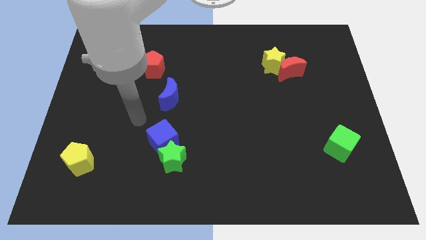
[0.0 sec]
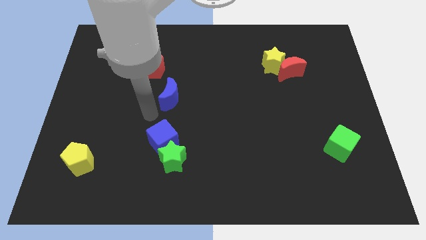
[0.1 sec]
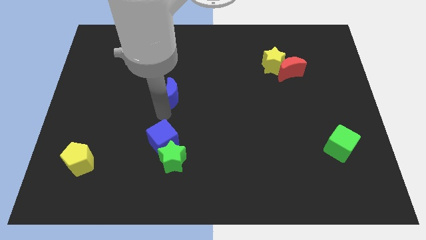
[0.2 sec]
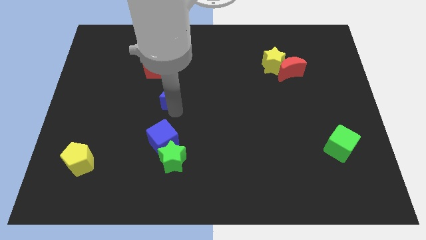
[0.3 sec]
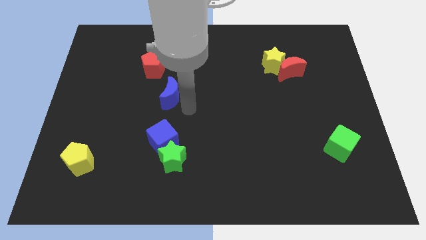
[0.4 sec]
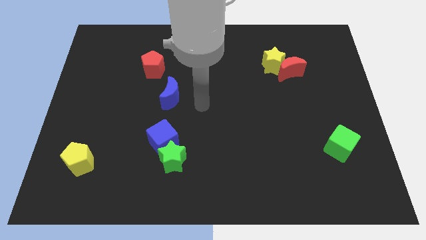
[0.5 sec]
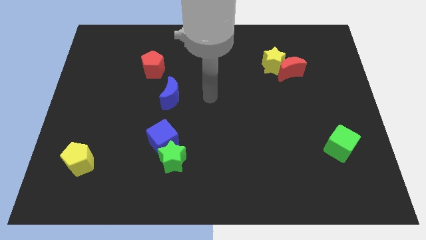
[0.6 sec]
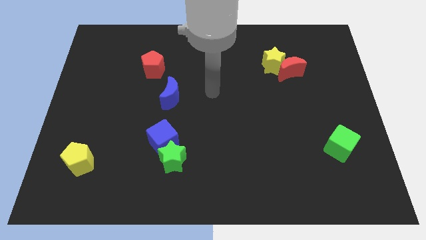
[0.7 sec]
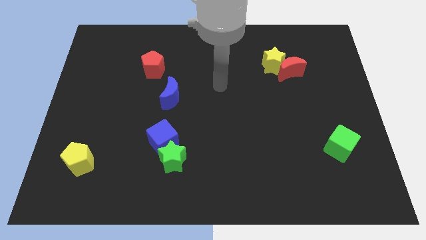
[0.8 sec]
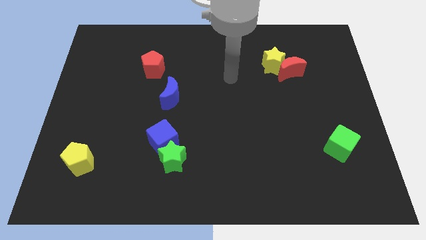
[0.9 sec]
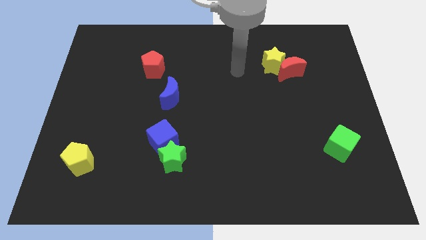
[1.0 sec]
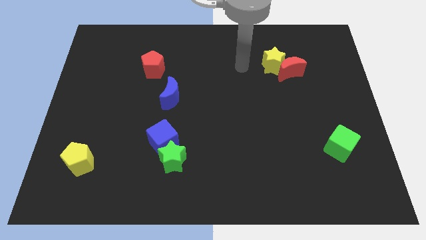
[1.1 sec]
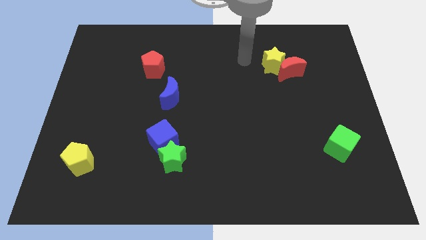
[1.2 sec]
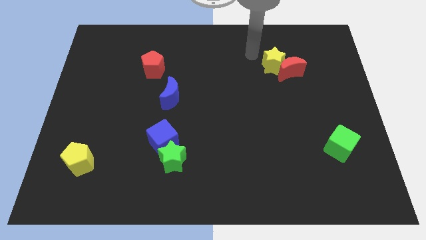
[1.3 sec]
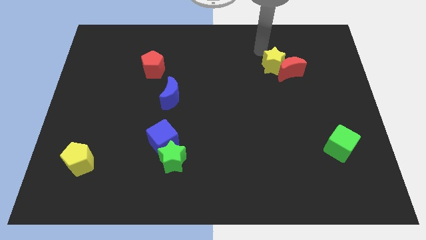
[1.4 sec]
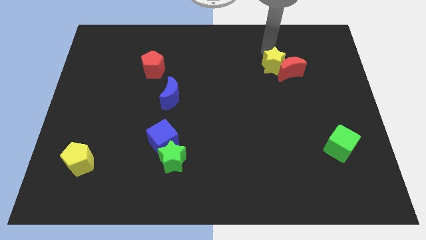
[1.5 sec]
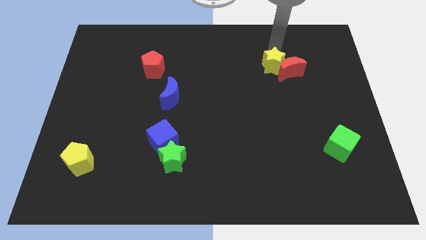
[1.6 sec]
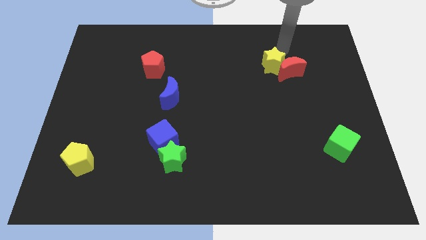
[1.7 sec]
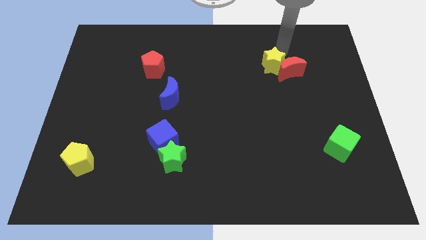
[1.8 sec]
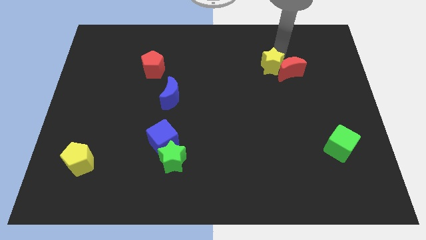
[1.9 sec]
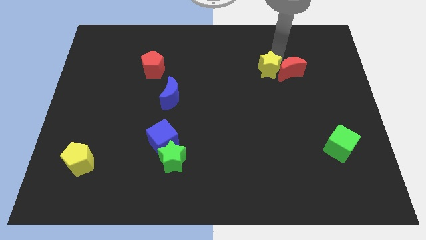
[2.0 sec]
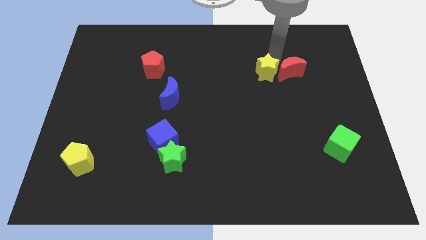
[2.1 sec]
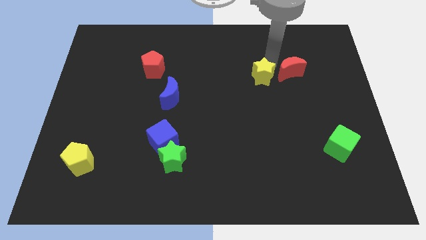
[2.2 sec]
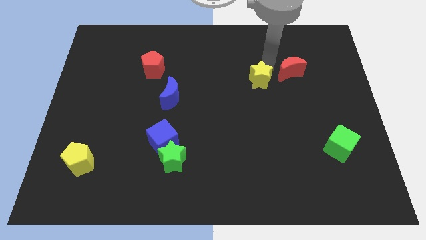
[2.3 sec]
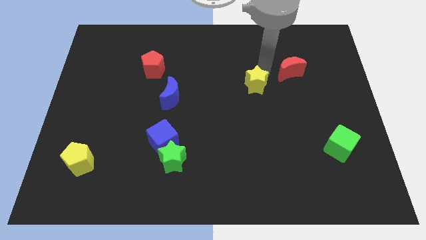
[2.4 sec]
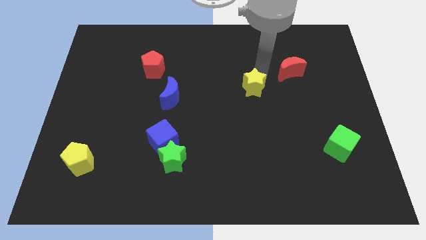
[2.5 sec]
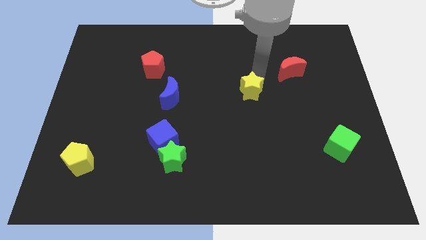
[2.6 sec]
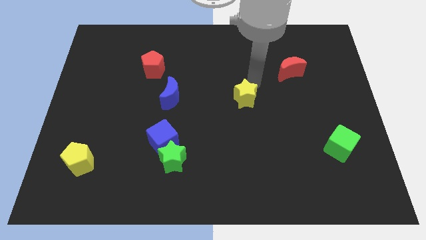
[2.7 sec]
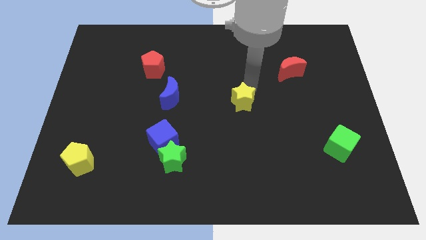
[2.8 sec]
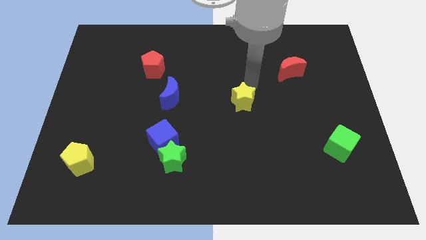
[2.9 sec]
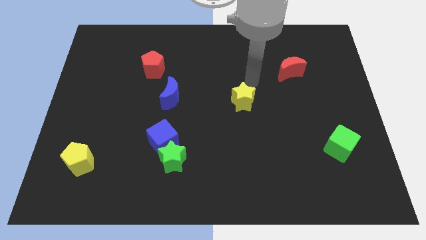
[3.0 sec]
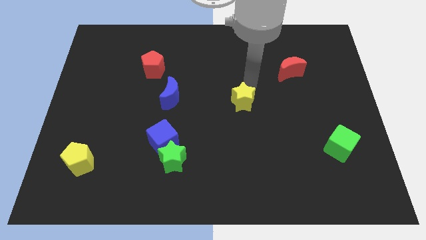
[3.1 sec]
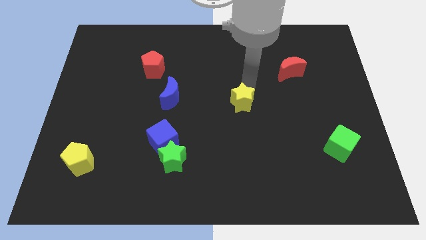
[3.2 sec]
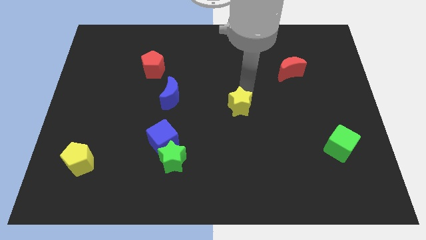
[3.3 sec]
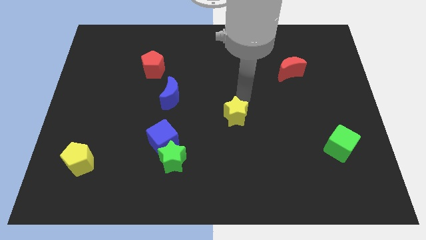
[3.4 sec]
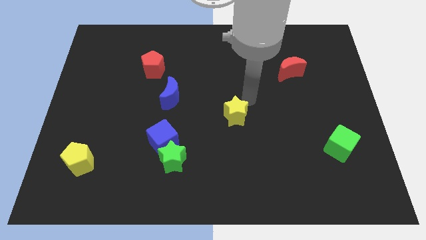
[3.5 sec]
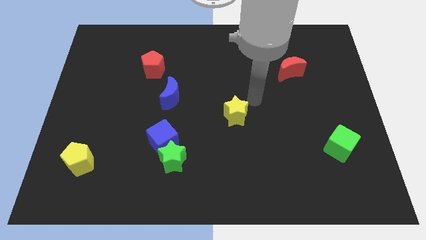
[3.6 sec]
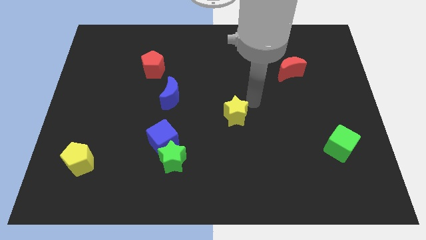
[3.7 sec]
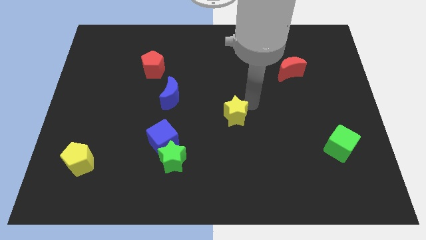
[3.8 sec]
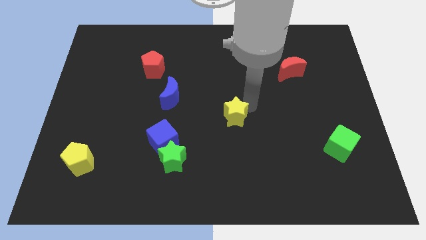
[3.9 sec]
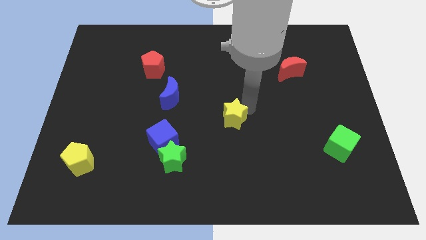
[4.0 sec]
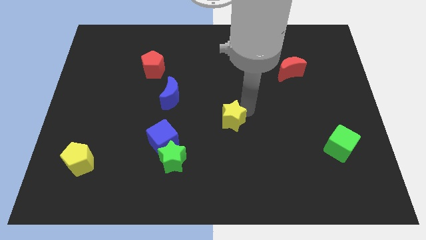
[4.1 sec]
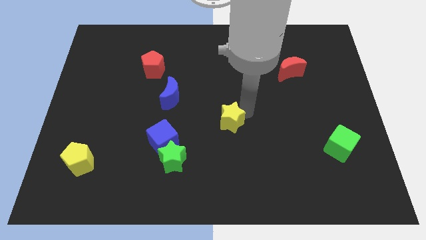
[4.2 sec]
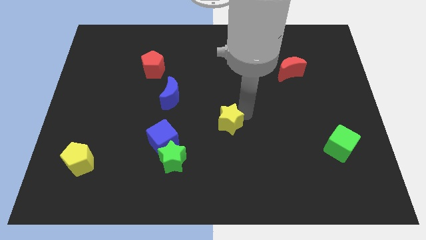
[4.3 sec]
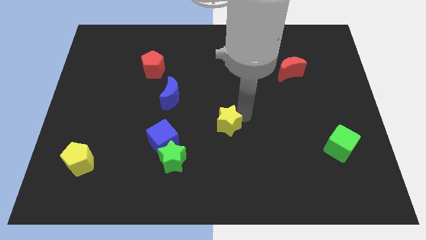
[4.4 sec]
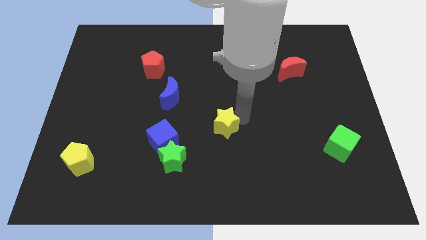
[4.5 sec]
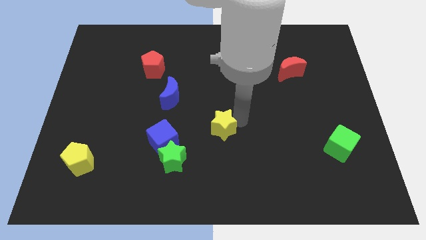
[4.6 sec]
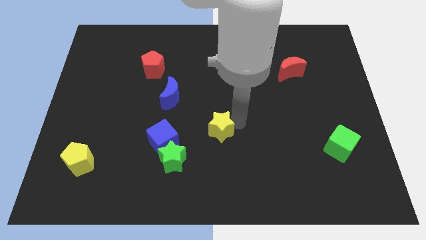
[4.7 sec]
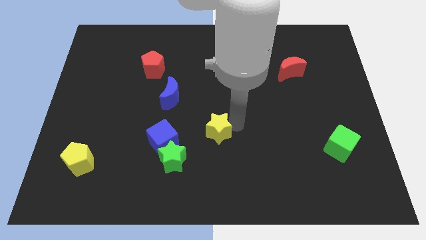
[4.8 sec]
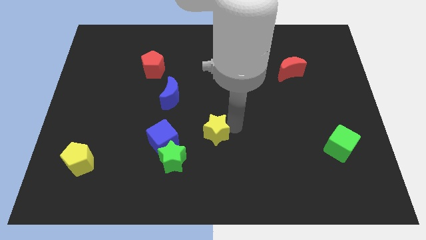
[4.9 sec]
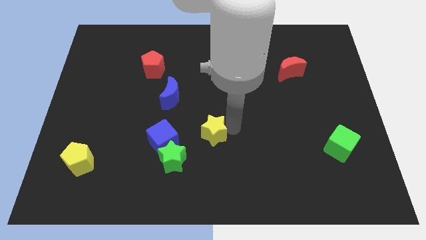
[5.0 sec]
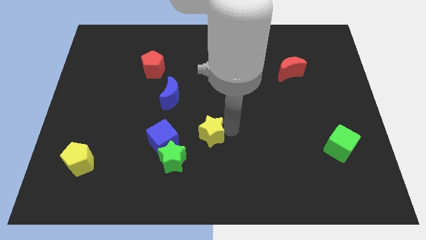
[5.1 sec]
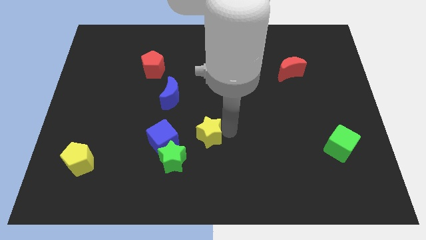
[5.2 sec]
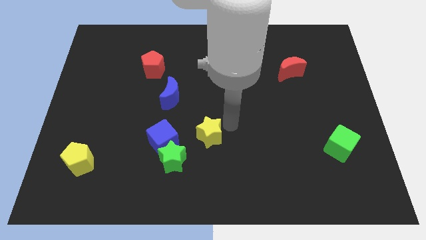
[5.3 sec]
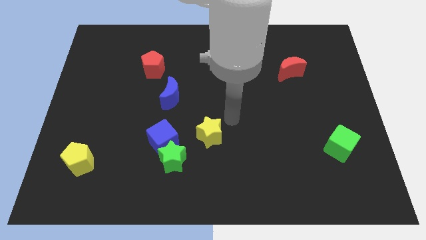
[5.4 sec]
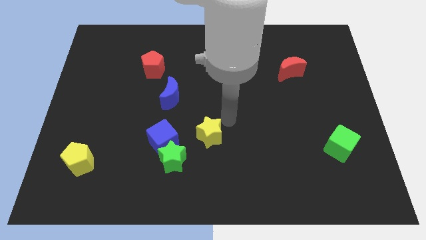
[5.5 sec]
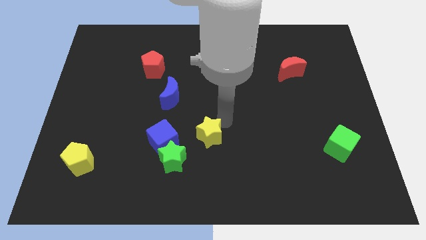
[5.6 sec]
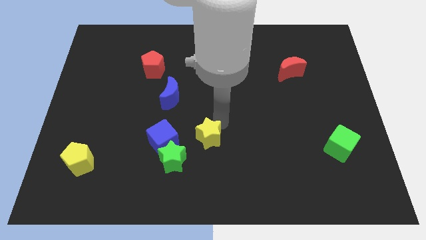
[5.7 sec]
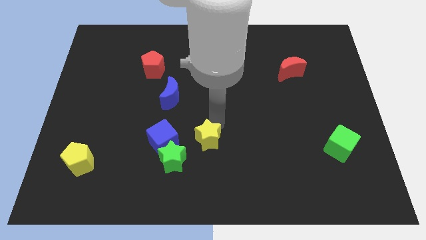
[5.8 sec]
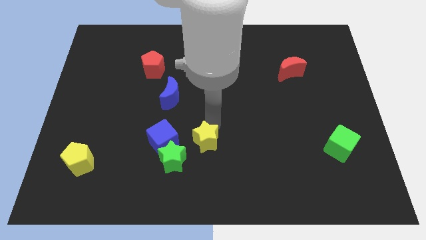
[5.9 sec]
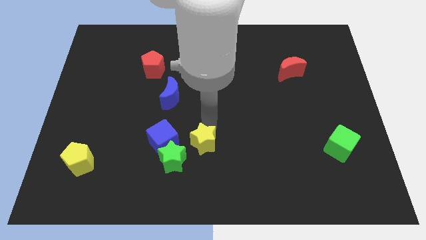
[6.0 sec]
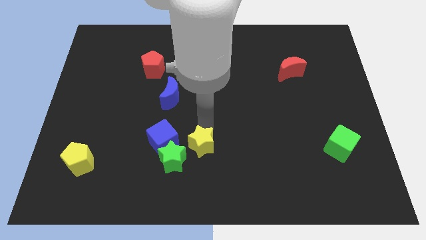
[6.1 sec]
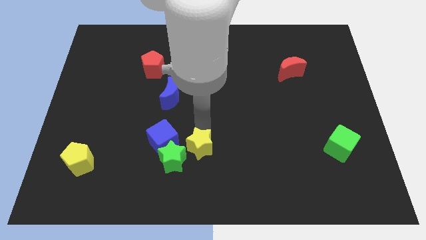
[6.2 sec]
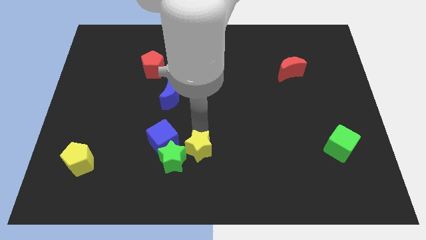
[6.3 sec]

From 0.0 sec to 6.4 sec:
slide the yellow star close to the green star

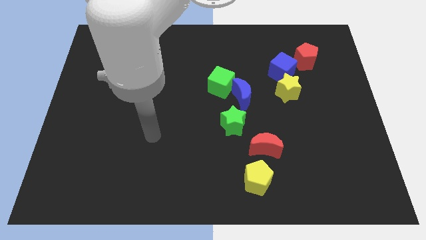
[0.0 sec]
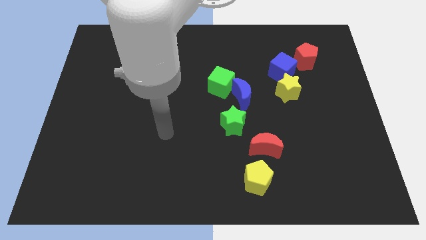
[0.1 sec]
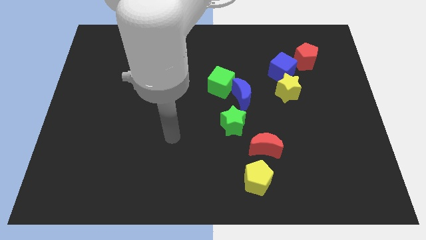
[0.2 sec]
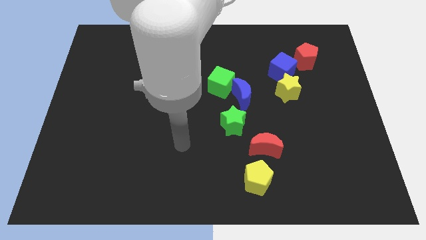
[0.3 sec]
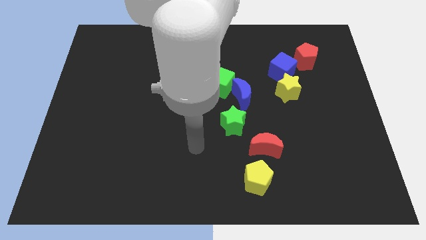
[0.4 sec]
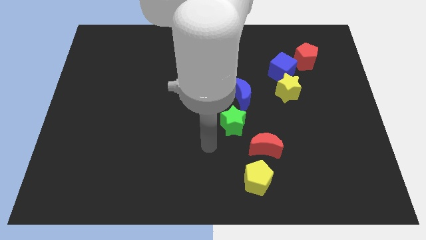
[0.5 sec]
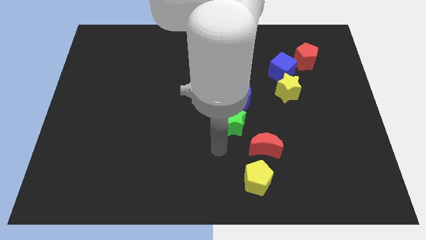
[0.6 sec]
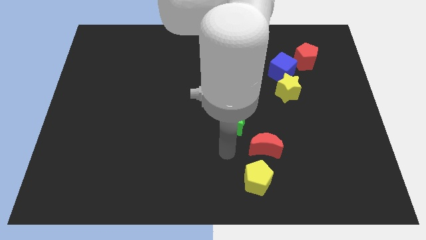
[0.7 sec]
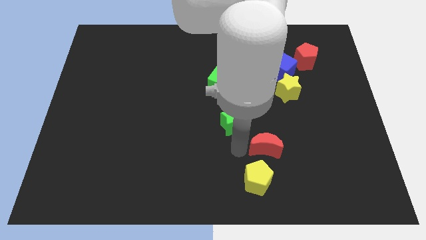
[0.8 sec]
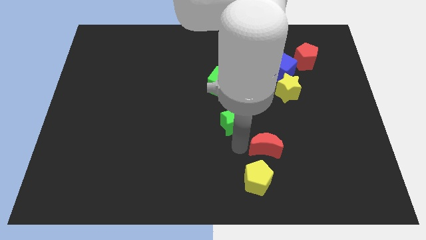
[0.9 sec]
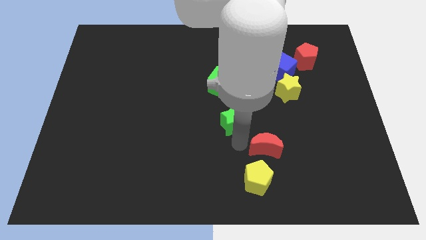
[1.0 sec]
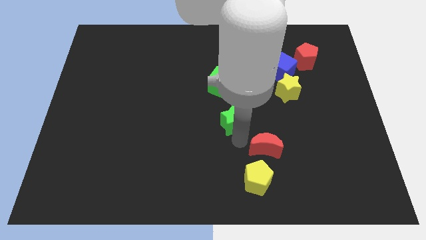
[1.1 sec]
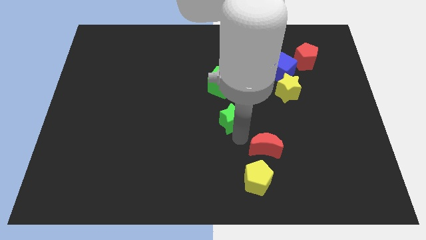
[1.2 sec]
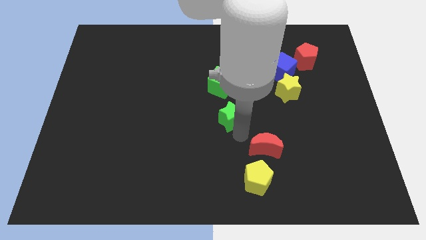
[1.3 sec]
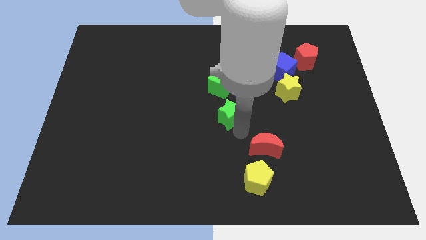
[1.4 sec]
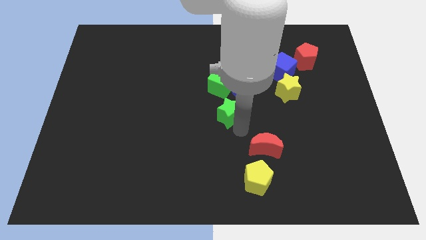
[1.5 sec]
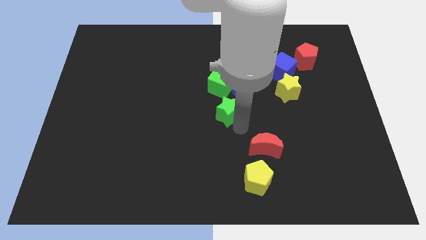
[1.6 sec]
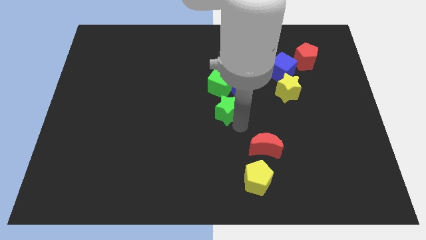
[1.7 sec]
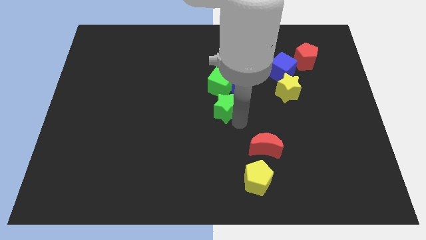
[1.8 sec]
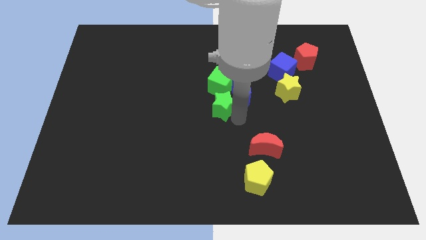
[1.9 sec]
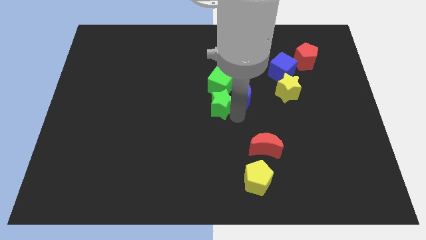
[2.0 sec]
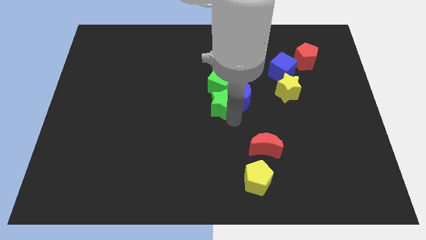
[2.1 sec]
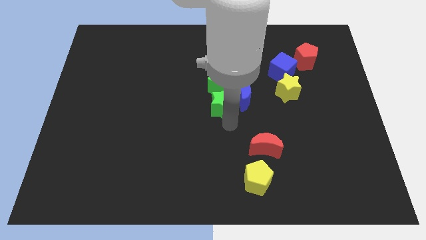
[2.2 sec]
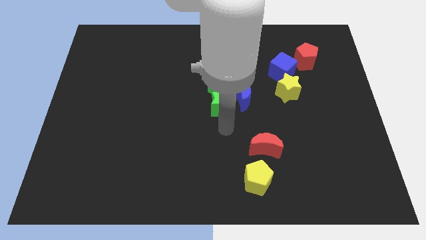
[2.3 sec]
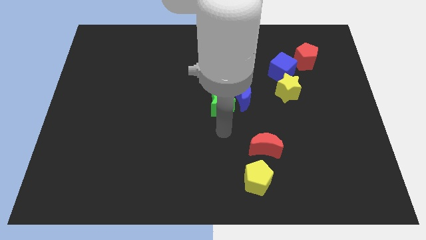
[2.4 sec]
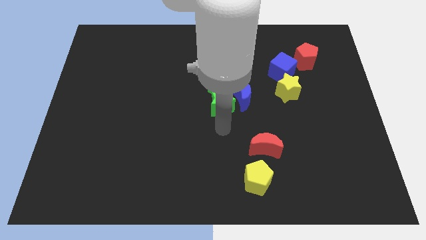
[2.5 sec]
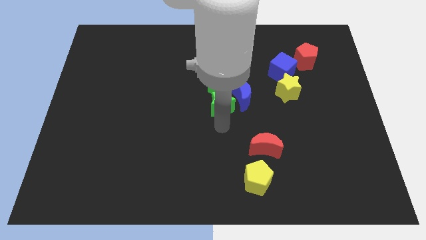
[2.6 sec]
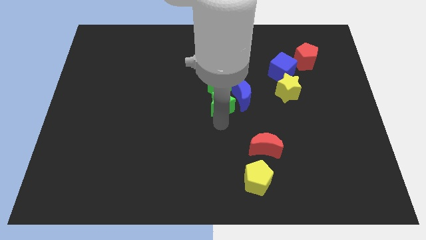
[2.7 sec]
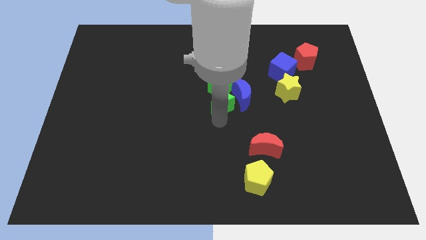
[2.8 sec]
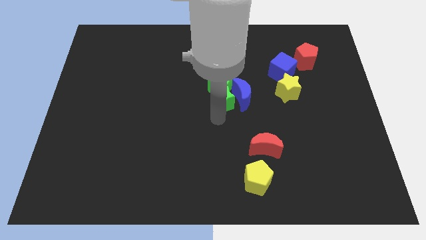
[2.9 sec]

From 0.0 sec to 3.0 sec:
put the green star to the green cube
